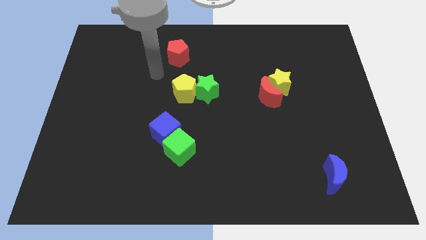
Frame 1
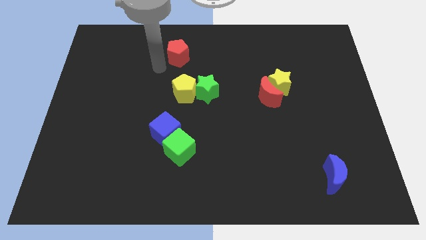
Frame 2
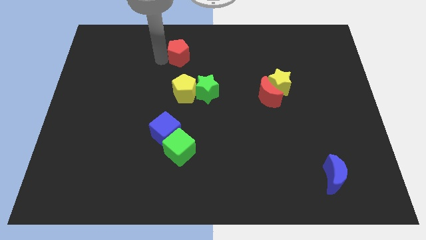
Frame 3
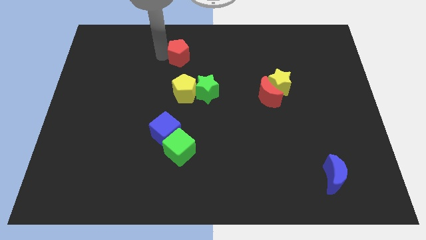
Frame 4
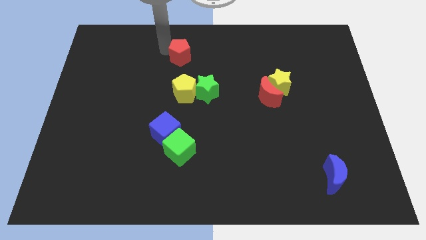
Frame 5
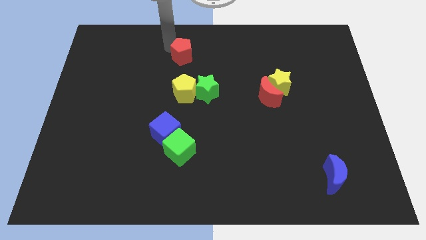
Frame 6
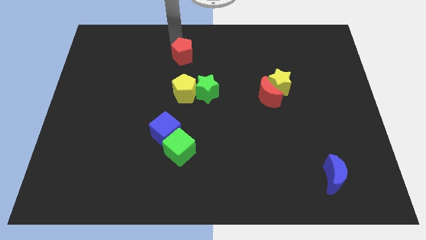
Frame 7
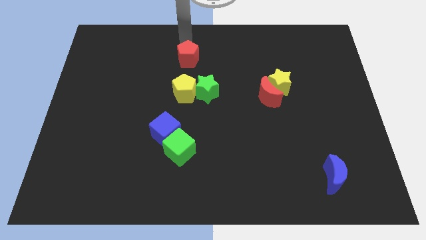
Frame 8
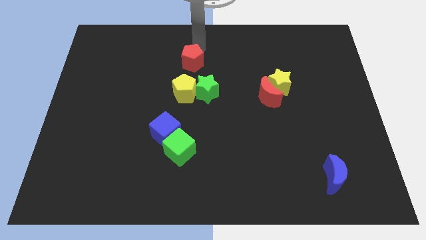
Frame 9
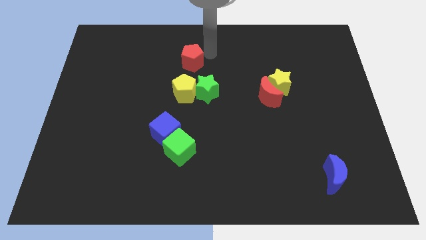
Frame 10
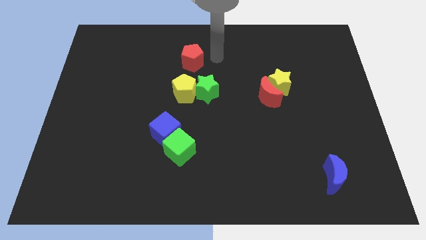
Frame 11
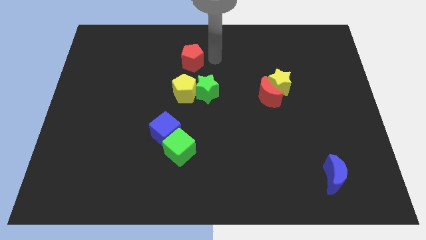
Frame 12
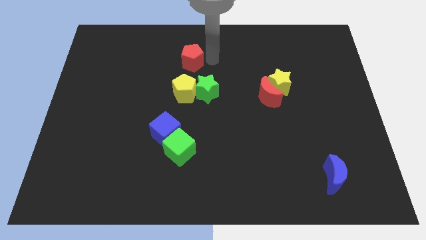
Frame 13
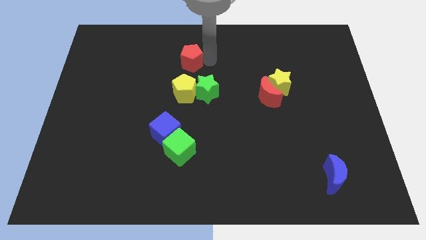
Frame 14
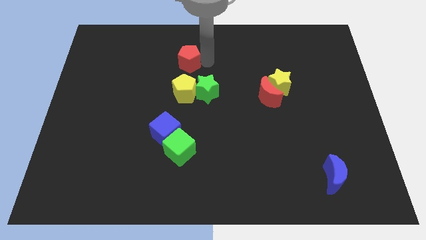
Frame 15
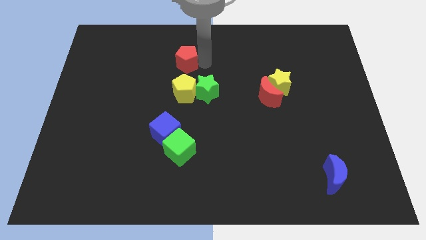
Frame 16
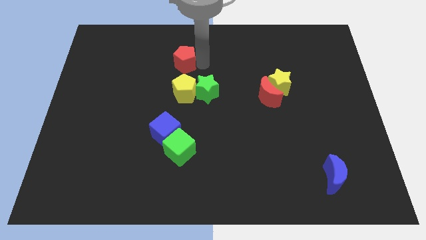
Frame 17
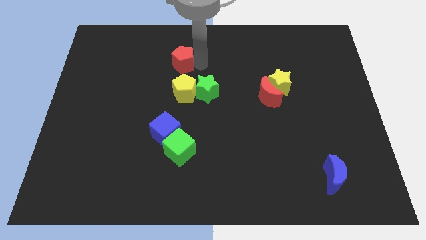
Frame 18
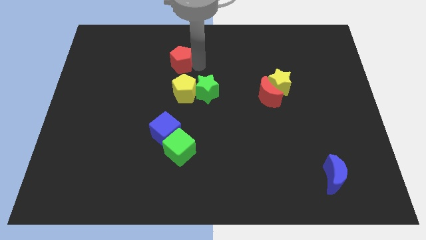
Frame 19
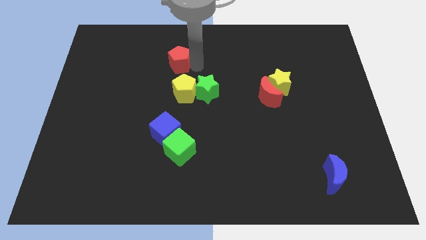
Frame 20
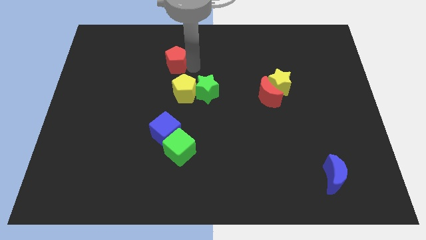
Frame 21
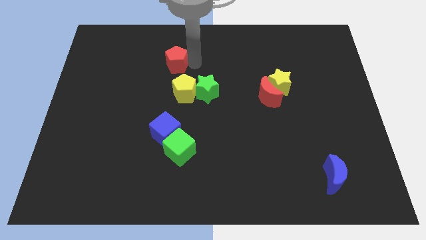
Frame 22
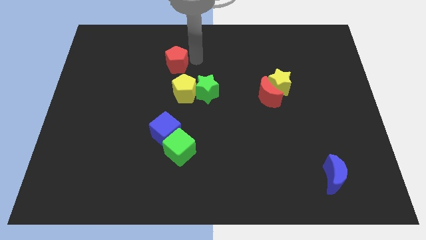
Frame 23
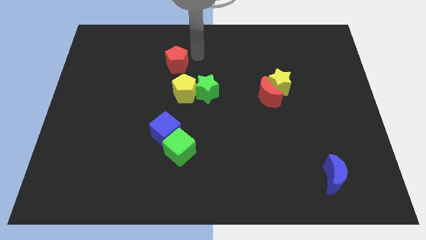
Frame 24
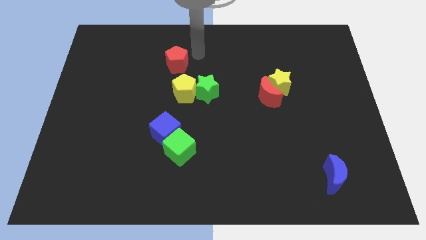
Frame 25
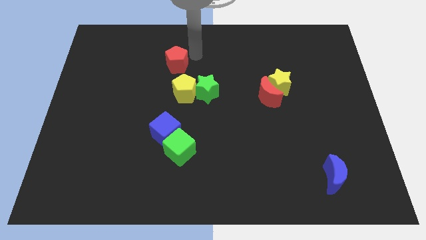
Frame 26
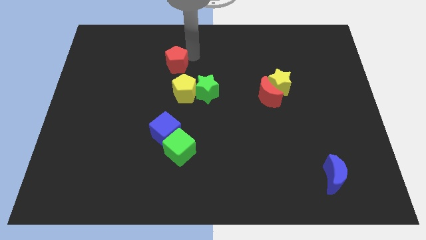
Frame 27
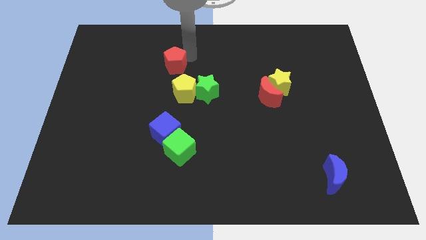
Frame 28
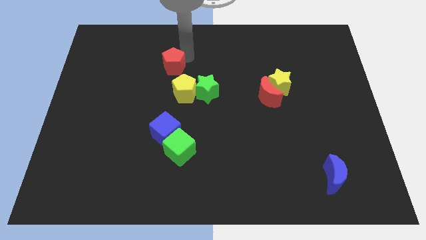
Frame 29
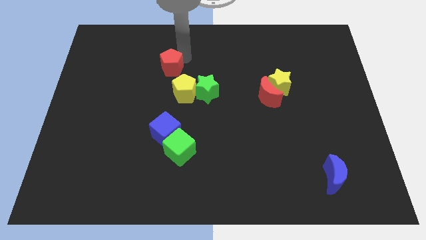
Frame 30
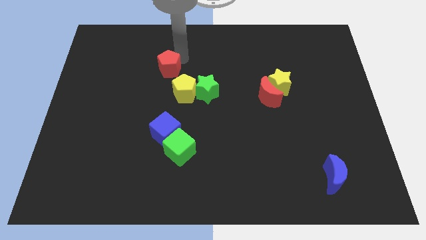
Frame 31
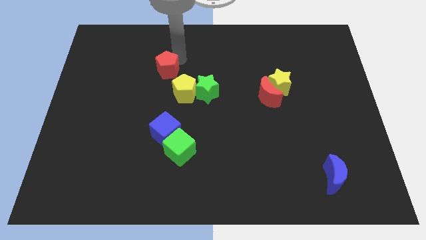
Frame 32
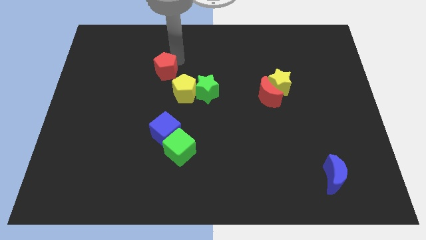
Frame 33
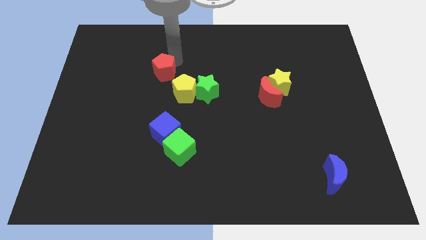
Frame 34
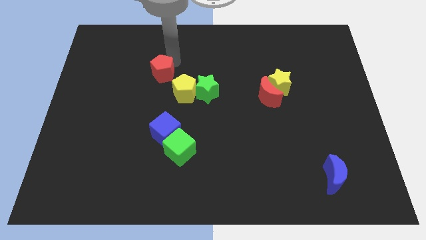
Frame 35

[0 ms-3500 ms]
move the red pentagon downwards and left slightly

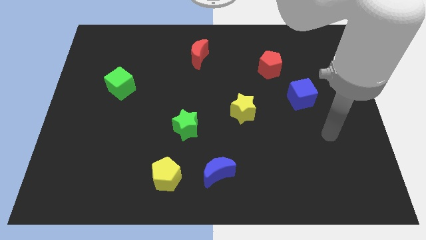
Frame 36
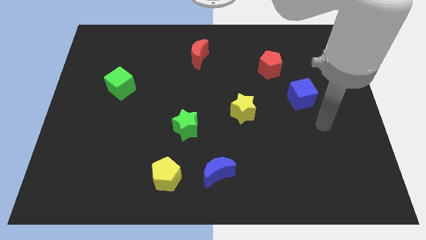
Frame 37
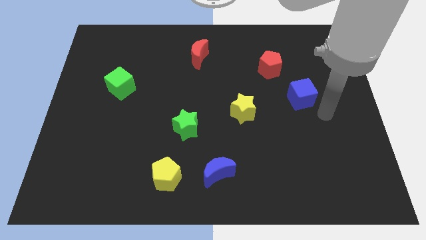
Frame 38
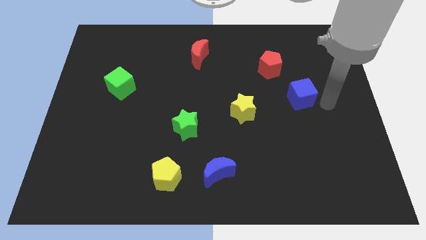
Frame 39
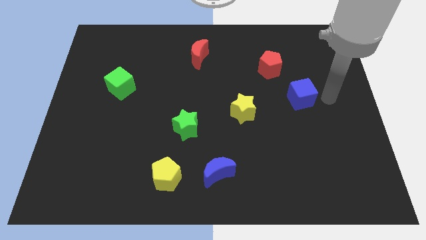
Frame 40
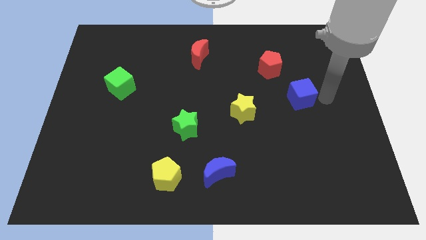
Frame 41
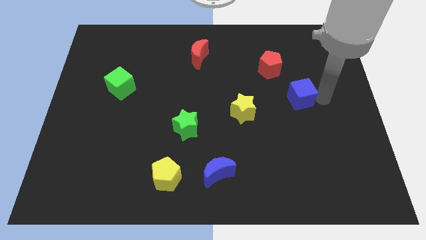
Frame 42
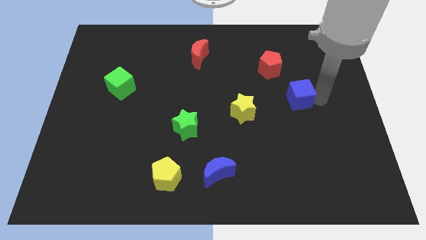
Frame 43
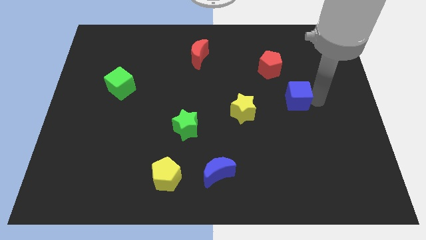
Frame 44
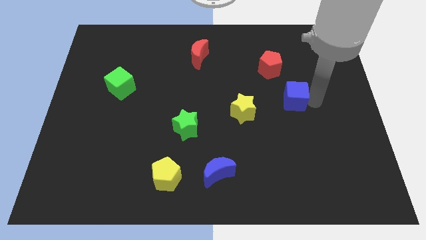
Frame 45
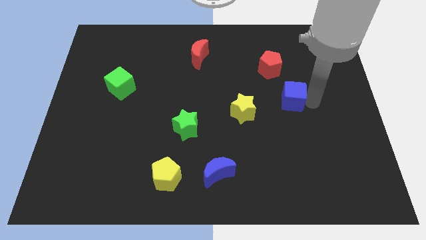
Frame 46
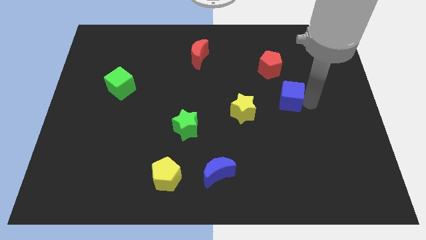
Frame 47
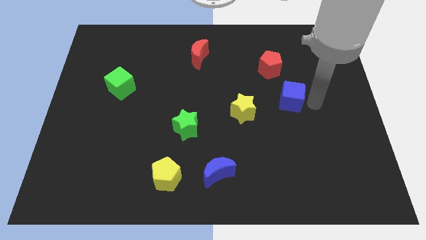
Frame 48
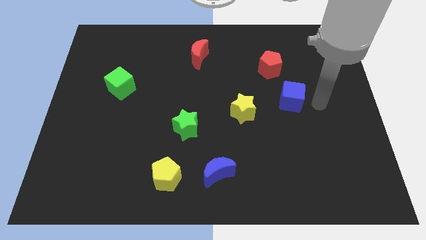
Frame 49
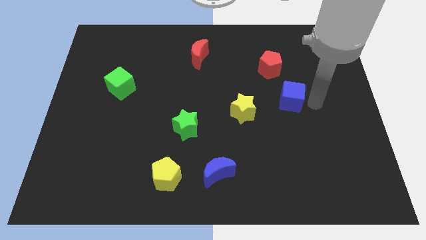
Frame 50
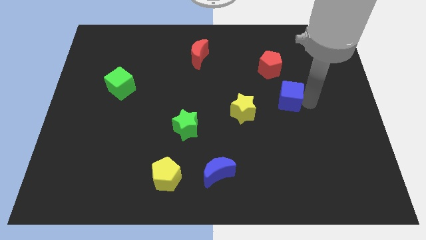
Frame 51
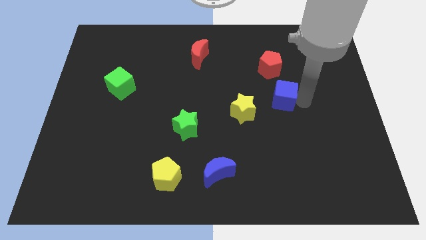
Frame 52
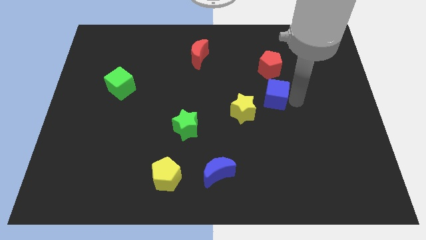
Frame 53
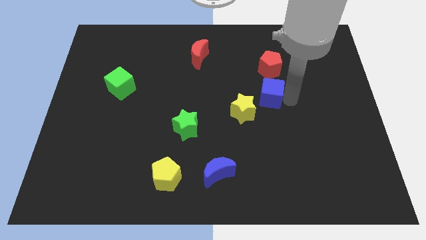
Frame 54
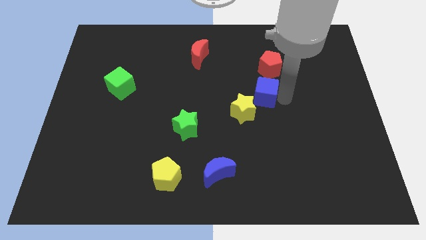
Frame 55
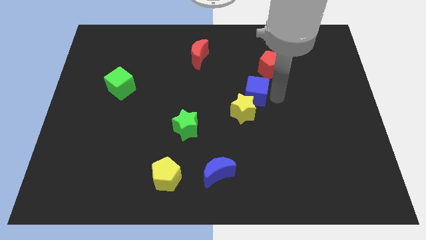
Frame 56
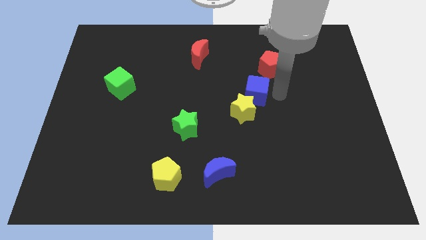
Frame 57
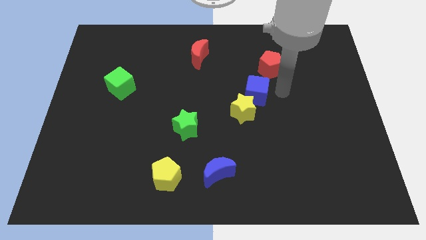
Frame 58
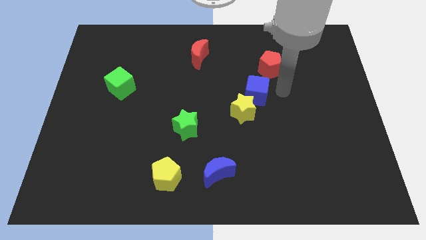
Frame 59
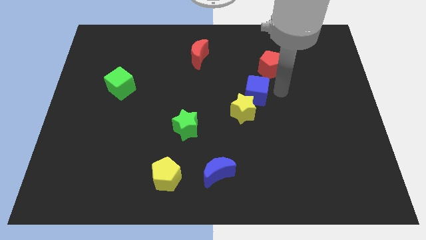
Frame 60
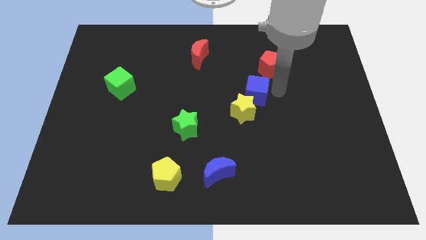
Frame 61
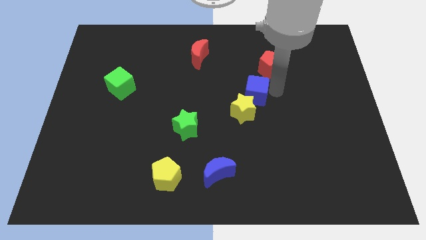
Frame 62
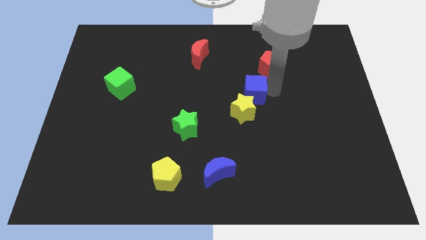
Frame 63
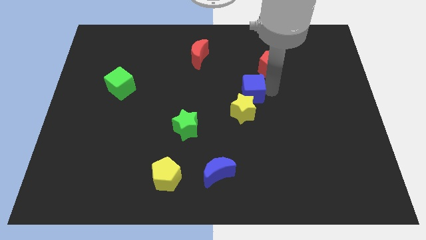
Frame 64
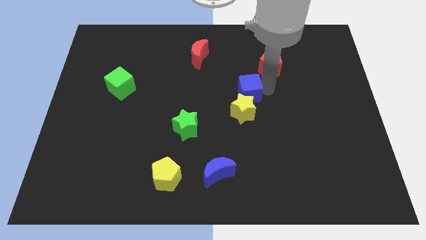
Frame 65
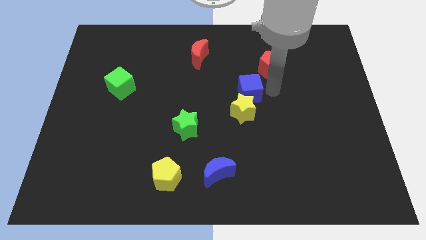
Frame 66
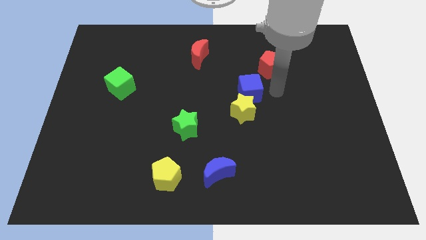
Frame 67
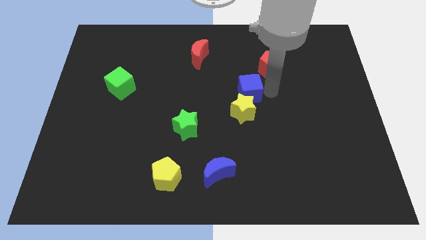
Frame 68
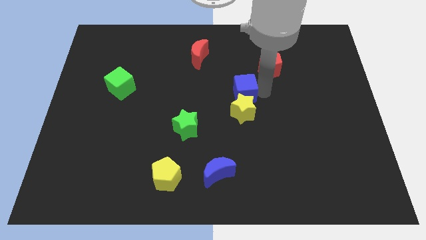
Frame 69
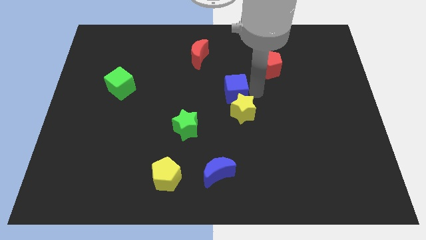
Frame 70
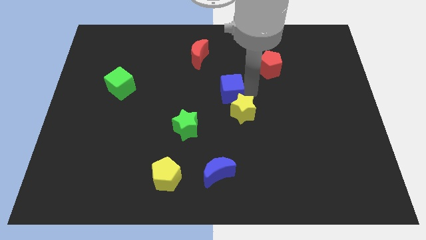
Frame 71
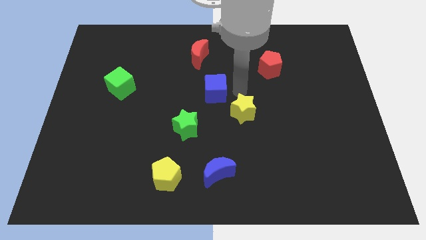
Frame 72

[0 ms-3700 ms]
slide the blue cube left

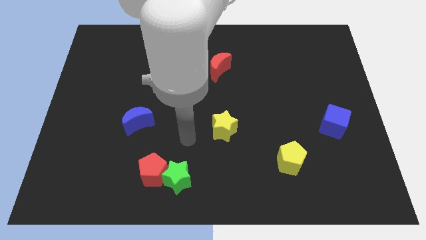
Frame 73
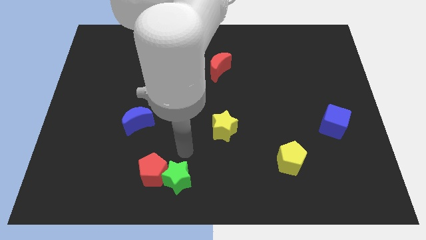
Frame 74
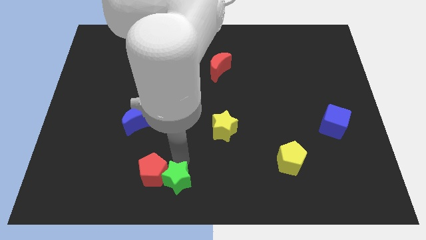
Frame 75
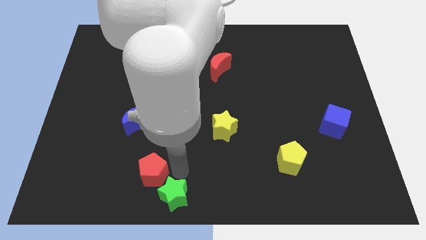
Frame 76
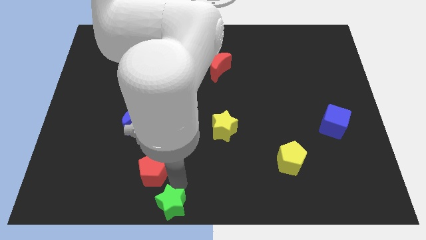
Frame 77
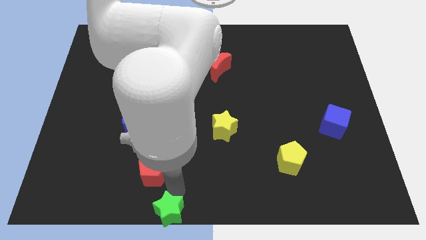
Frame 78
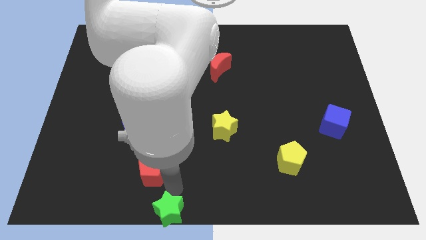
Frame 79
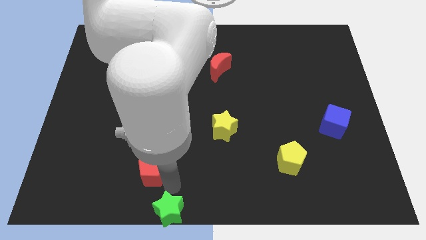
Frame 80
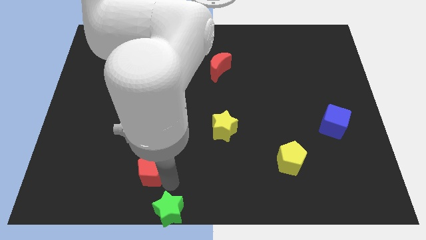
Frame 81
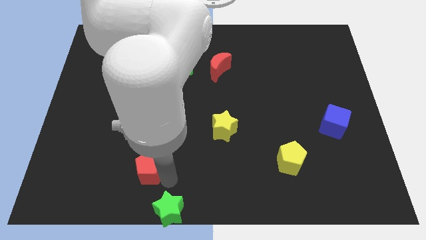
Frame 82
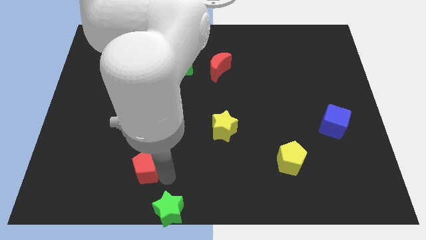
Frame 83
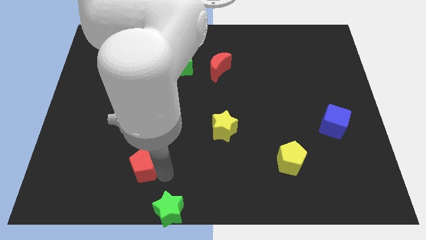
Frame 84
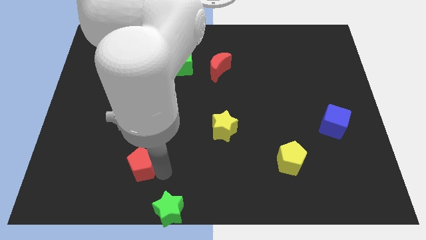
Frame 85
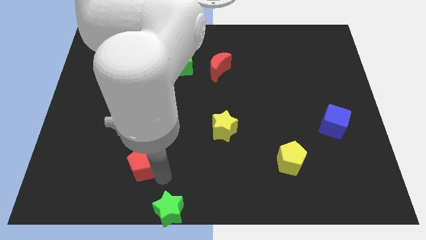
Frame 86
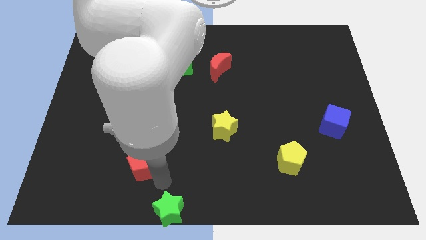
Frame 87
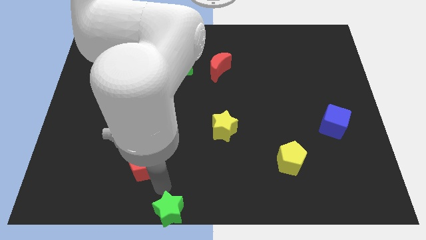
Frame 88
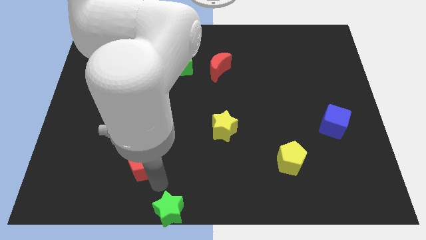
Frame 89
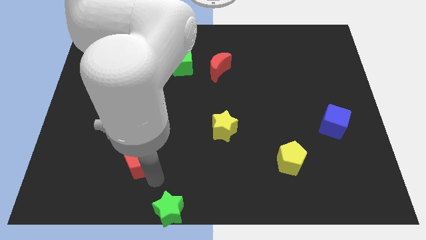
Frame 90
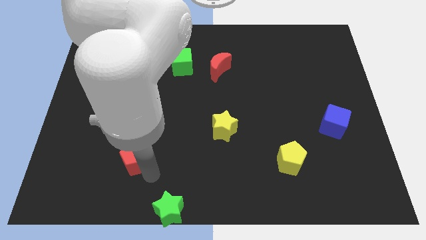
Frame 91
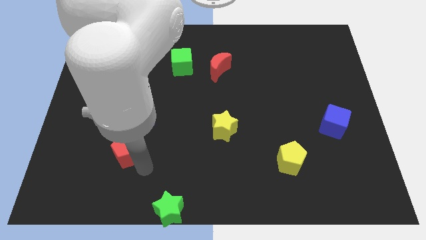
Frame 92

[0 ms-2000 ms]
slide the red pentagon diagonally up and to the left a little
